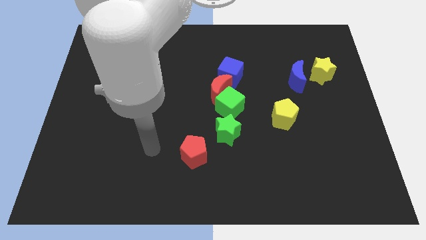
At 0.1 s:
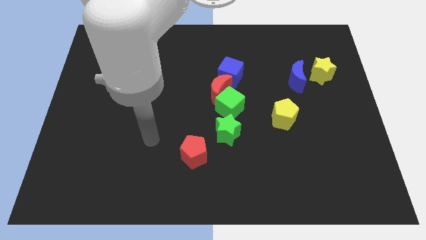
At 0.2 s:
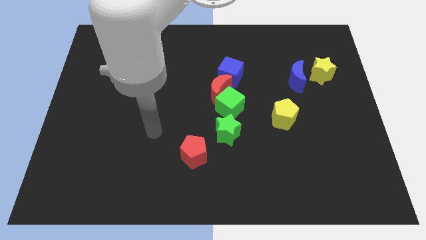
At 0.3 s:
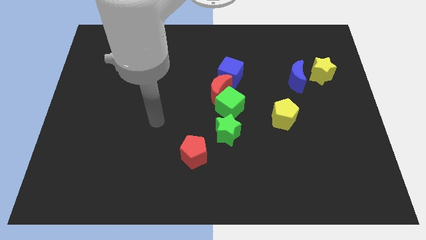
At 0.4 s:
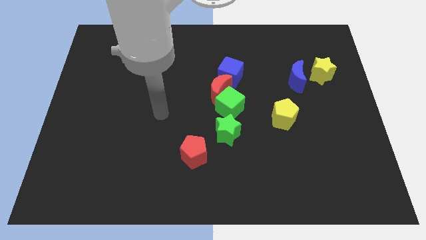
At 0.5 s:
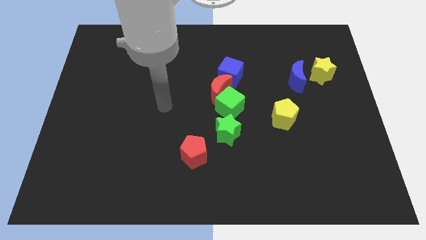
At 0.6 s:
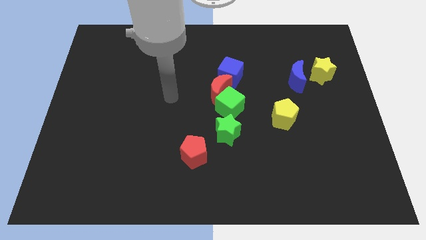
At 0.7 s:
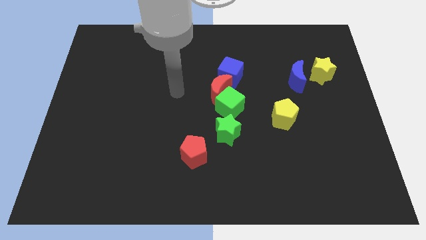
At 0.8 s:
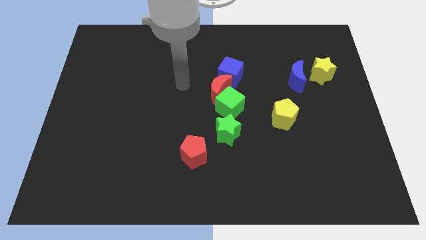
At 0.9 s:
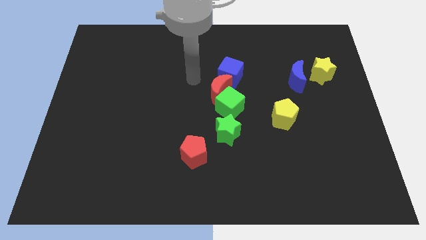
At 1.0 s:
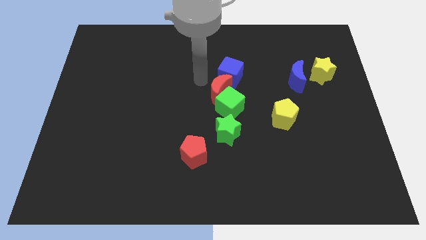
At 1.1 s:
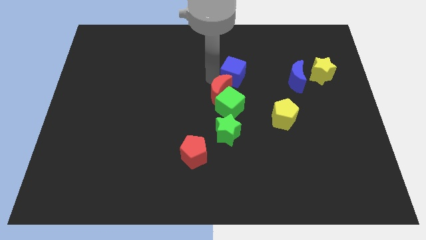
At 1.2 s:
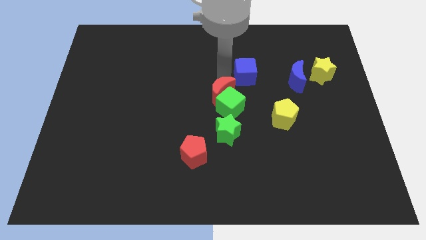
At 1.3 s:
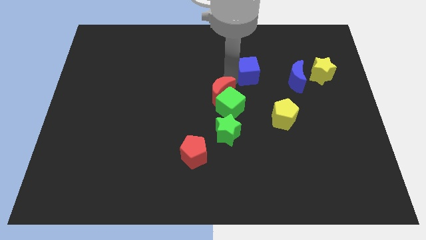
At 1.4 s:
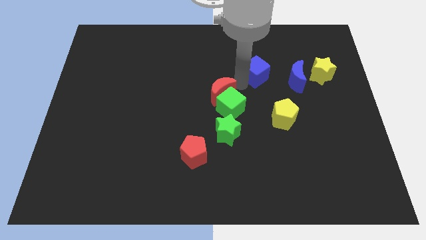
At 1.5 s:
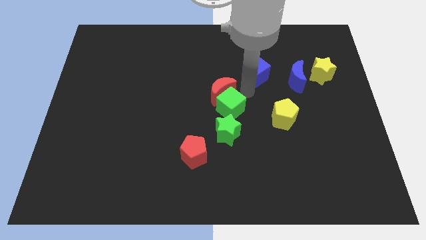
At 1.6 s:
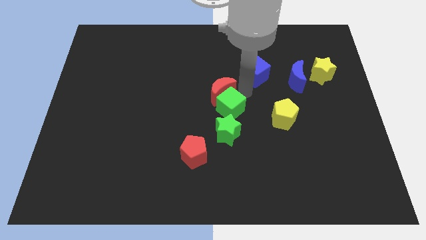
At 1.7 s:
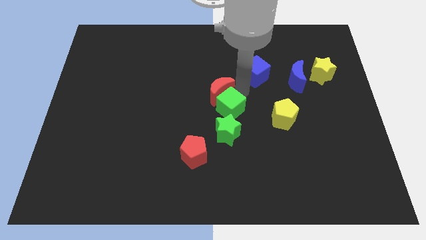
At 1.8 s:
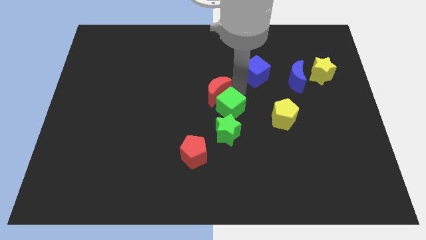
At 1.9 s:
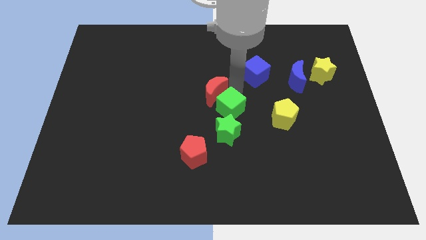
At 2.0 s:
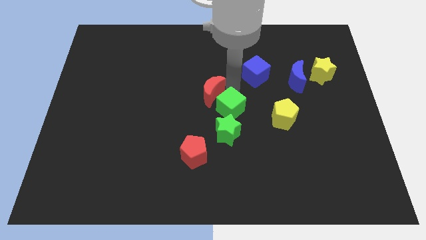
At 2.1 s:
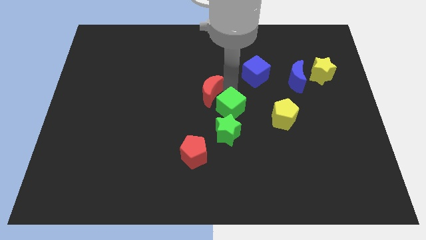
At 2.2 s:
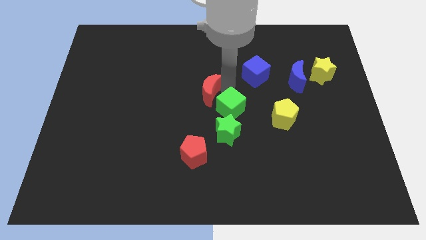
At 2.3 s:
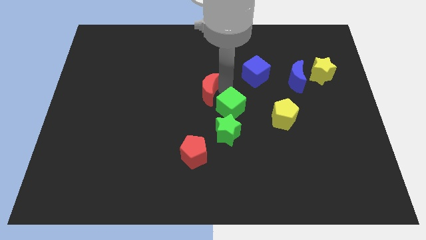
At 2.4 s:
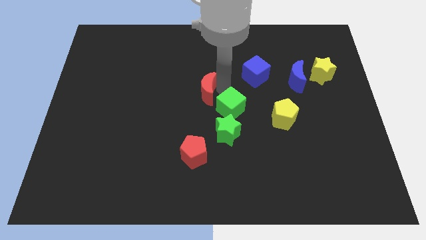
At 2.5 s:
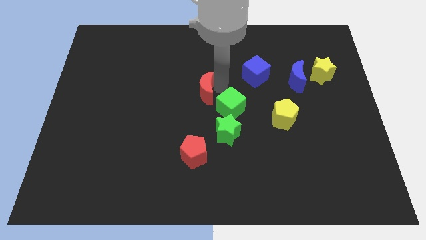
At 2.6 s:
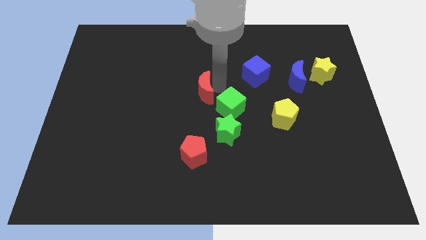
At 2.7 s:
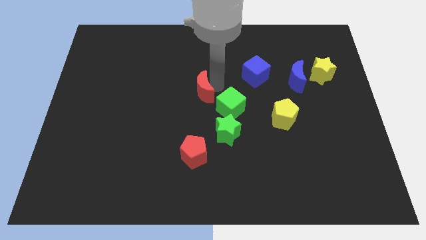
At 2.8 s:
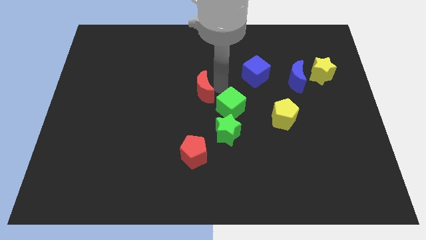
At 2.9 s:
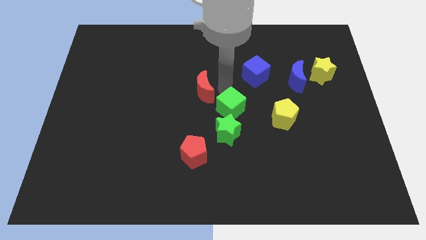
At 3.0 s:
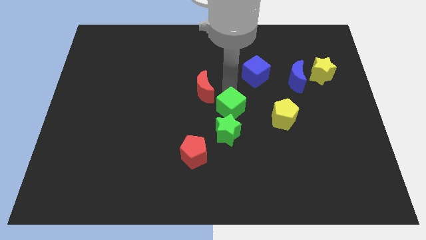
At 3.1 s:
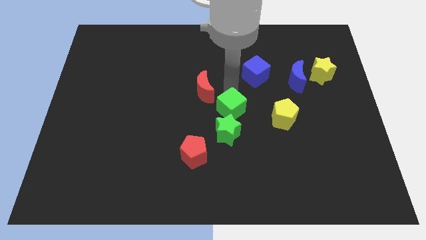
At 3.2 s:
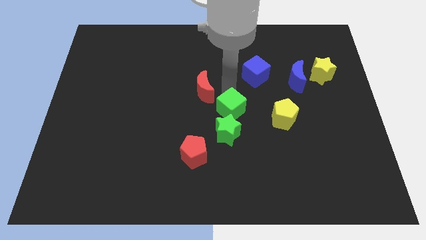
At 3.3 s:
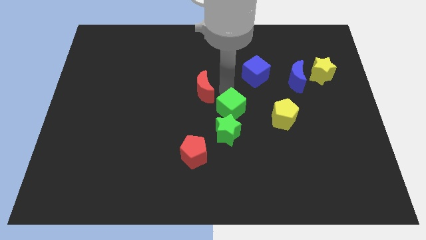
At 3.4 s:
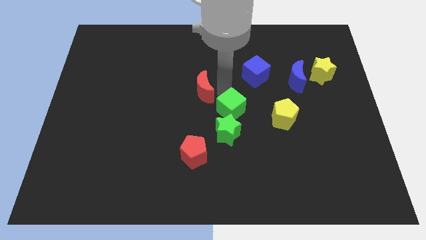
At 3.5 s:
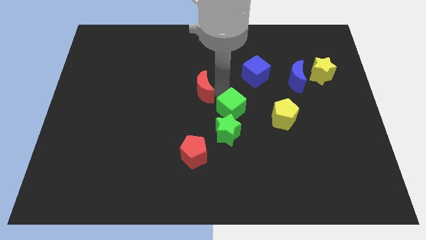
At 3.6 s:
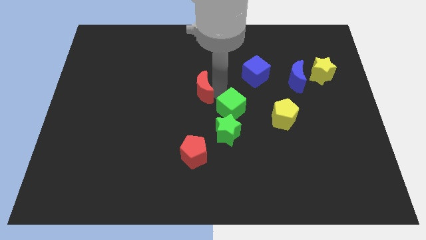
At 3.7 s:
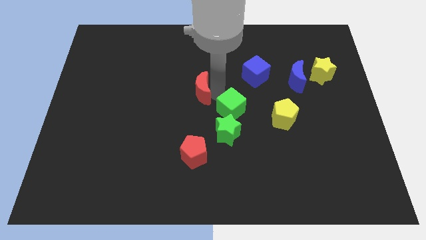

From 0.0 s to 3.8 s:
separate the red moon from the green cube and blue cube

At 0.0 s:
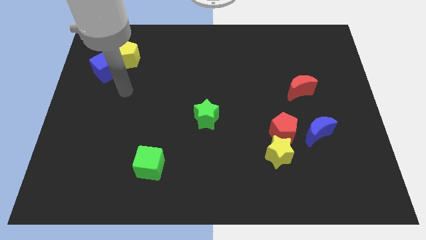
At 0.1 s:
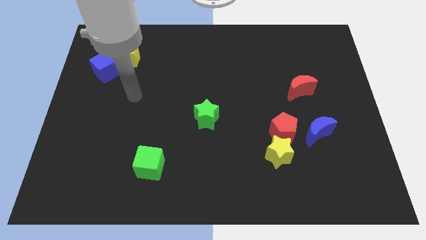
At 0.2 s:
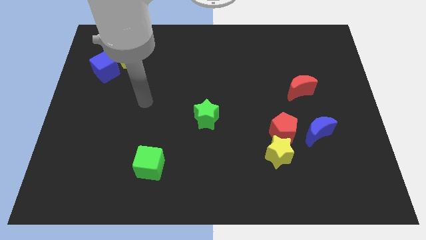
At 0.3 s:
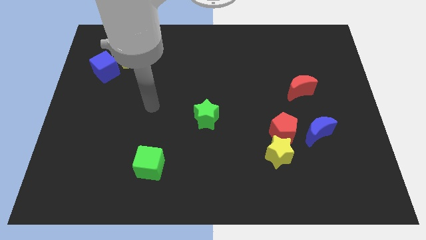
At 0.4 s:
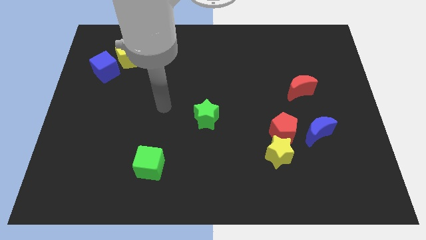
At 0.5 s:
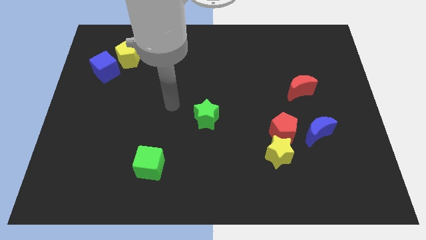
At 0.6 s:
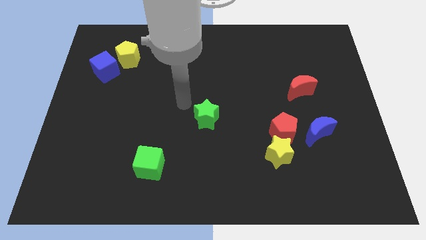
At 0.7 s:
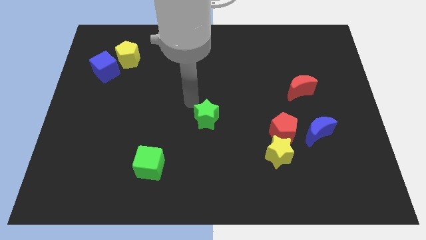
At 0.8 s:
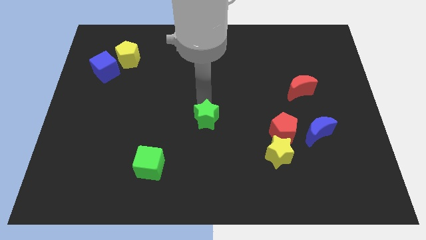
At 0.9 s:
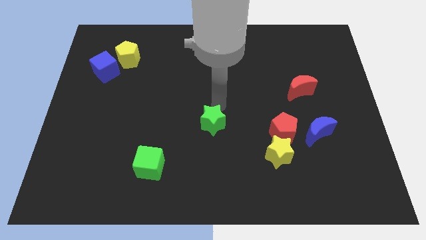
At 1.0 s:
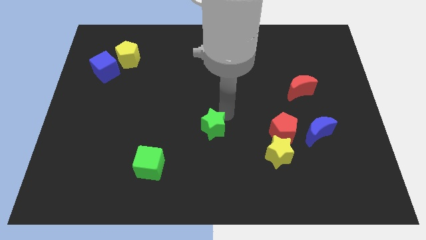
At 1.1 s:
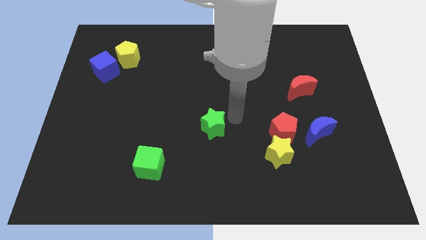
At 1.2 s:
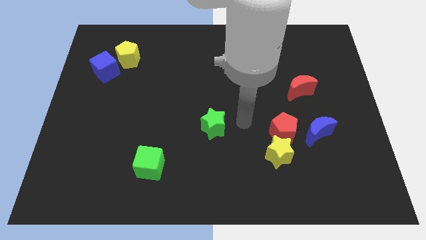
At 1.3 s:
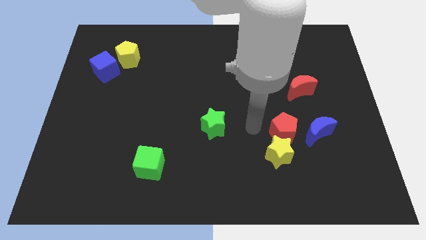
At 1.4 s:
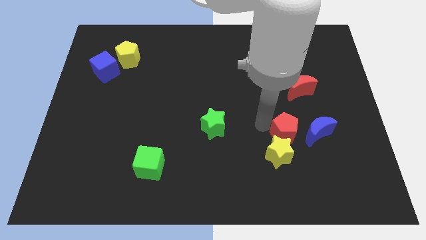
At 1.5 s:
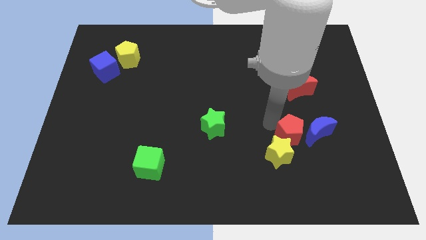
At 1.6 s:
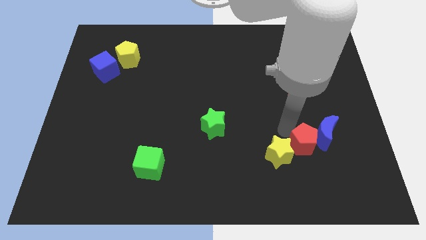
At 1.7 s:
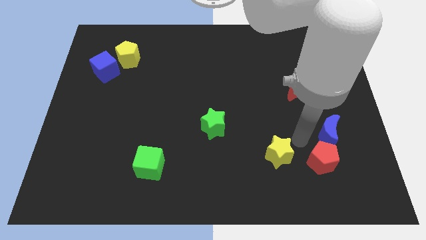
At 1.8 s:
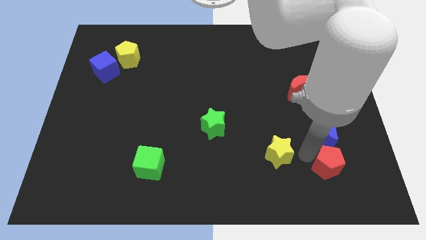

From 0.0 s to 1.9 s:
pull the yellow star apart from the red pentagon

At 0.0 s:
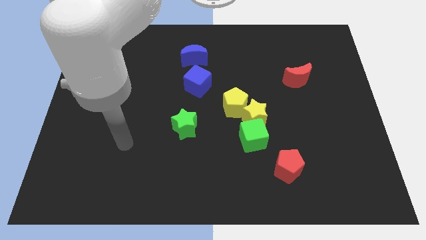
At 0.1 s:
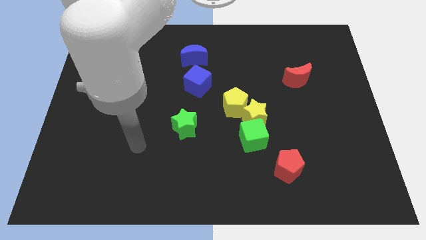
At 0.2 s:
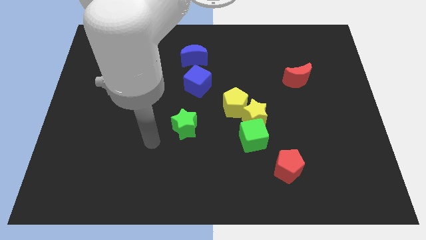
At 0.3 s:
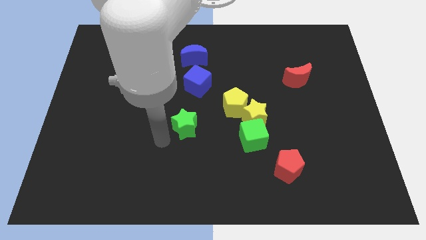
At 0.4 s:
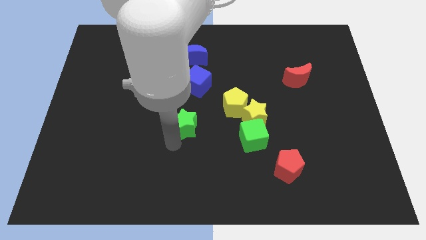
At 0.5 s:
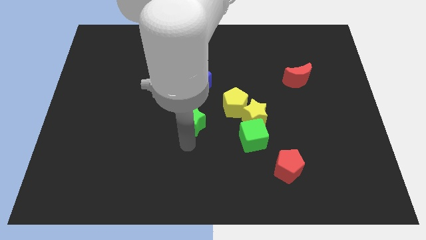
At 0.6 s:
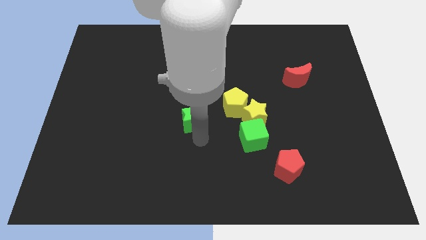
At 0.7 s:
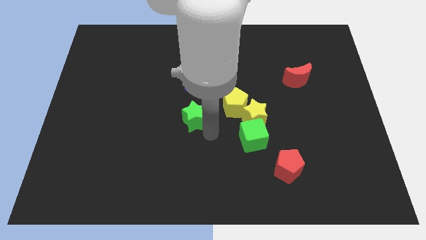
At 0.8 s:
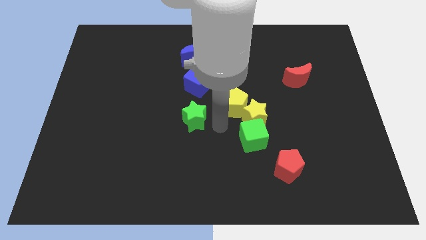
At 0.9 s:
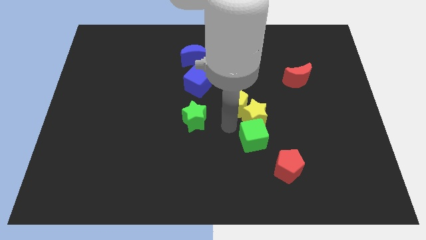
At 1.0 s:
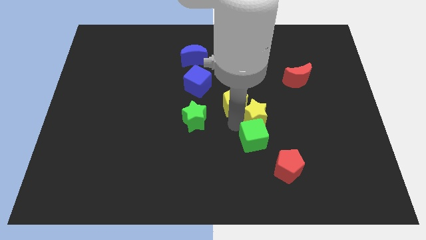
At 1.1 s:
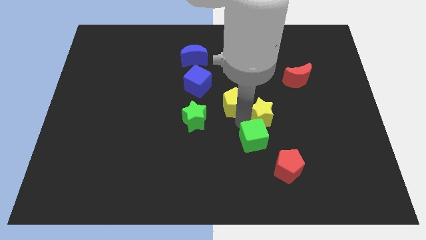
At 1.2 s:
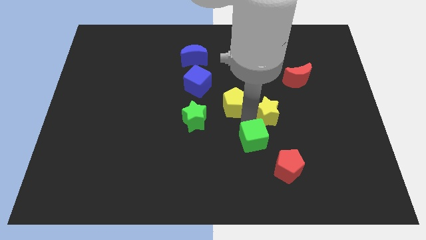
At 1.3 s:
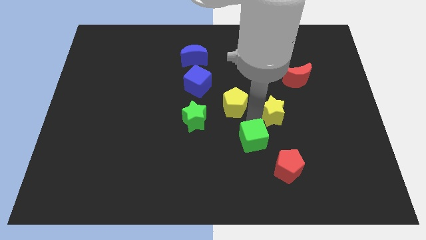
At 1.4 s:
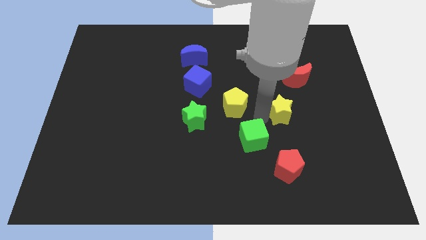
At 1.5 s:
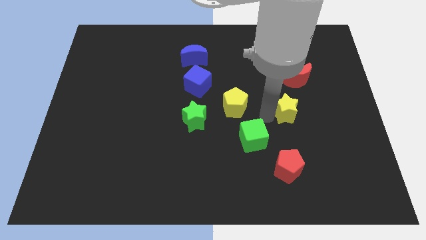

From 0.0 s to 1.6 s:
move the yellow star away from the green cube and yellow pentagon

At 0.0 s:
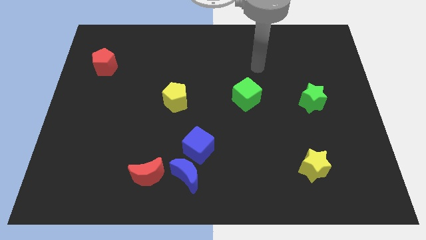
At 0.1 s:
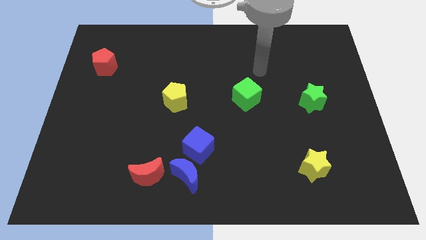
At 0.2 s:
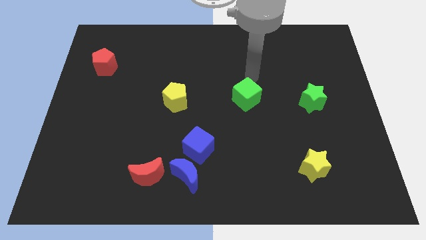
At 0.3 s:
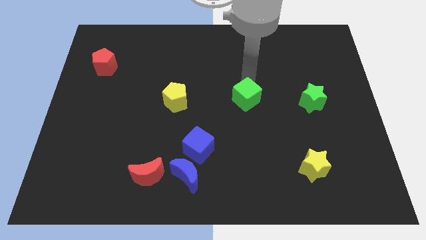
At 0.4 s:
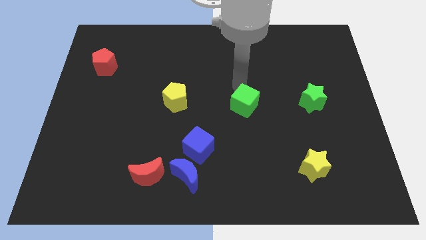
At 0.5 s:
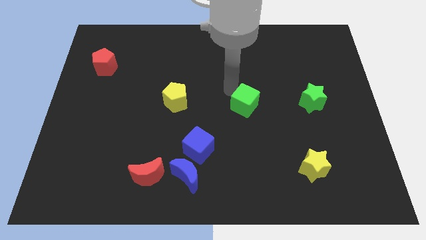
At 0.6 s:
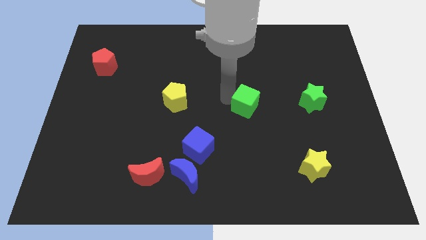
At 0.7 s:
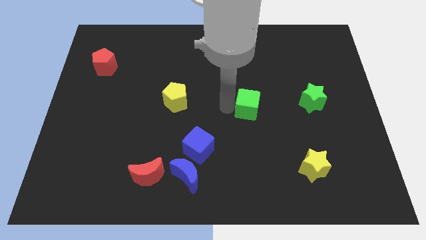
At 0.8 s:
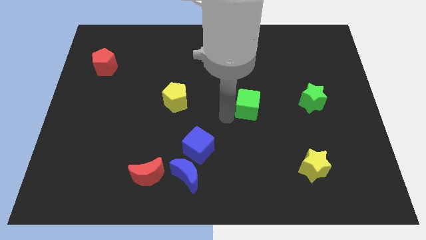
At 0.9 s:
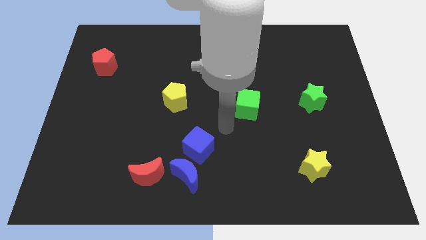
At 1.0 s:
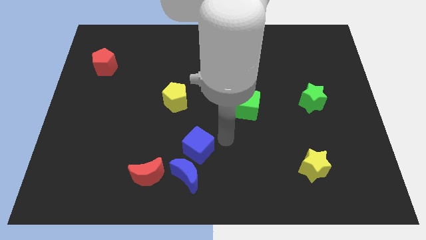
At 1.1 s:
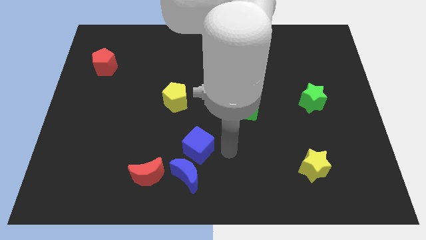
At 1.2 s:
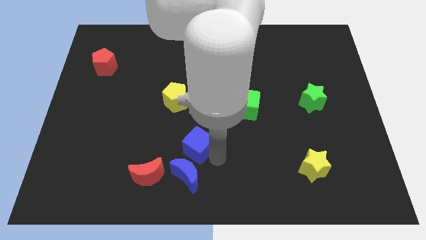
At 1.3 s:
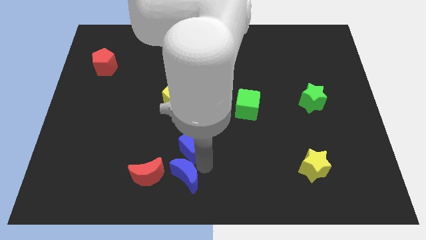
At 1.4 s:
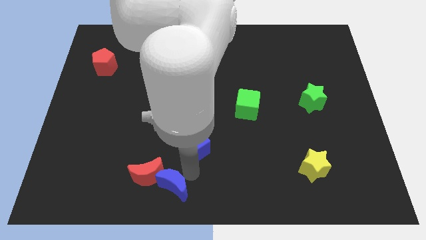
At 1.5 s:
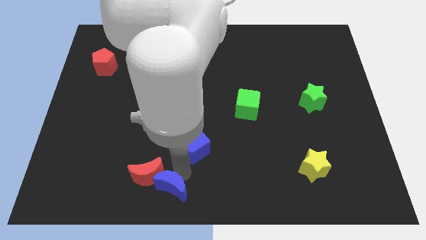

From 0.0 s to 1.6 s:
separate the blue cube from the blue moon

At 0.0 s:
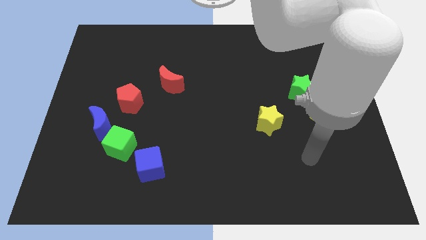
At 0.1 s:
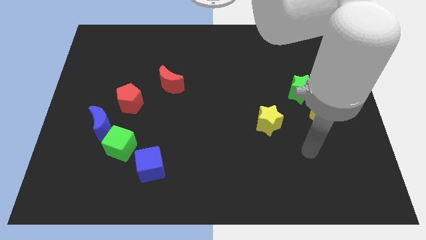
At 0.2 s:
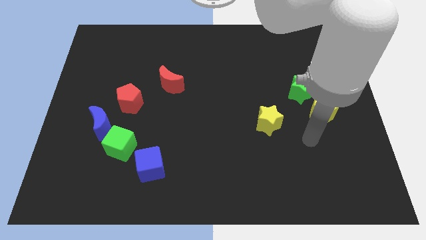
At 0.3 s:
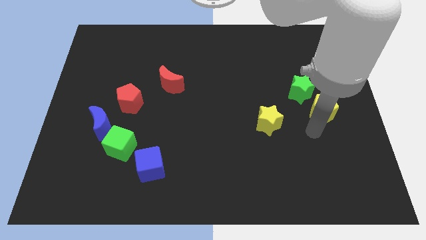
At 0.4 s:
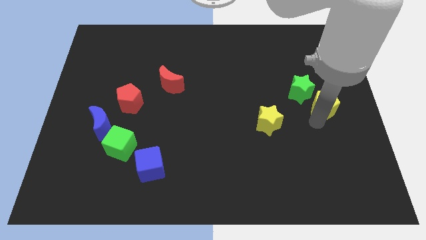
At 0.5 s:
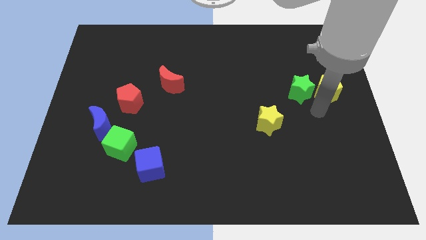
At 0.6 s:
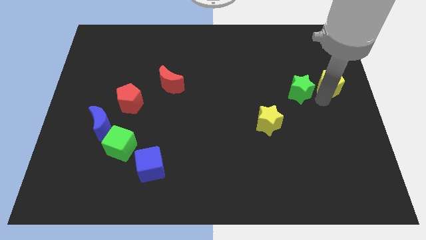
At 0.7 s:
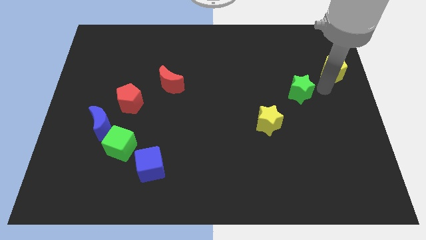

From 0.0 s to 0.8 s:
move the green star away from the yellow pentagon
